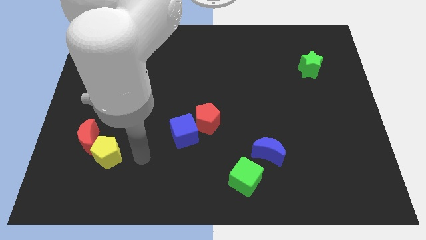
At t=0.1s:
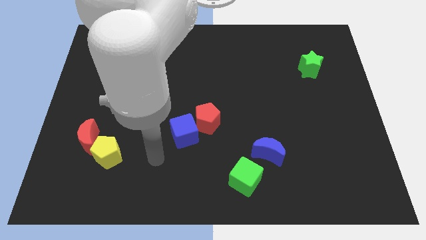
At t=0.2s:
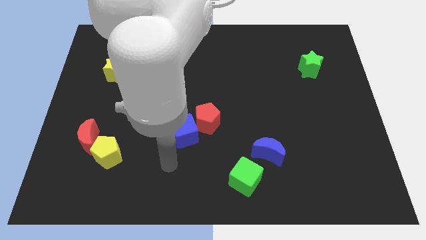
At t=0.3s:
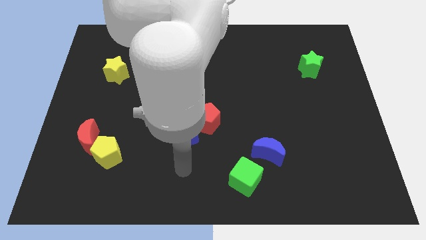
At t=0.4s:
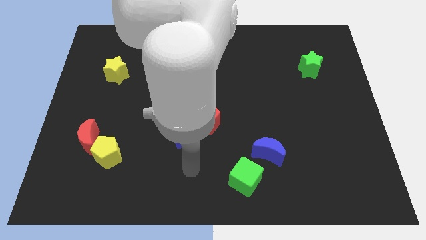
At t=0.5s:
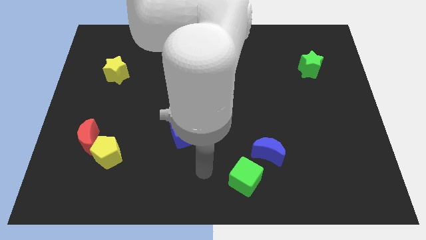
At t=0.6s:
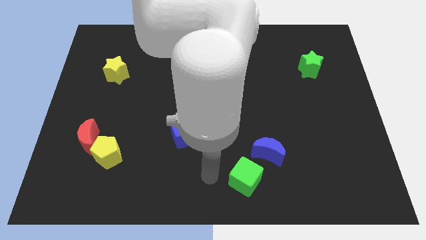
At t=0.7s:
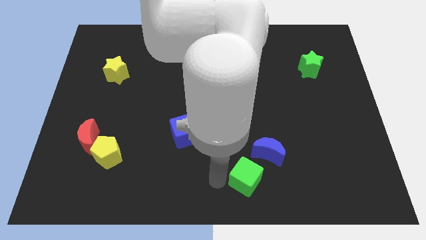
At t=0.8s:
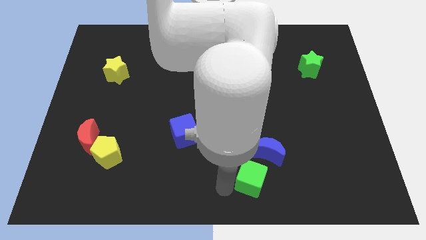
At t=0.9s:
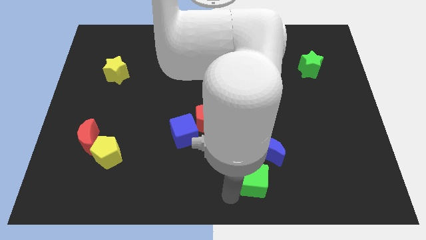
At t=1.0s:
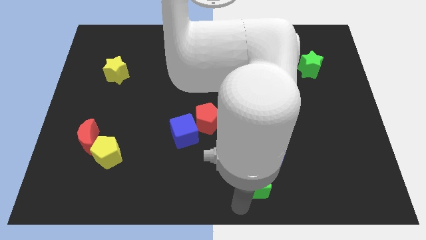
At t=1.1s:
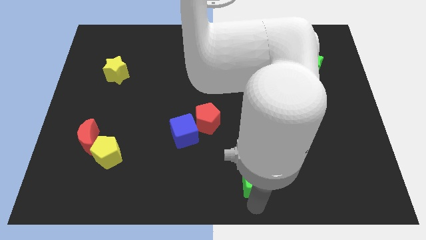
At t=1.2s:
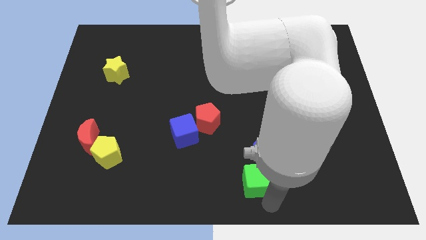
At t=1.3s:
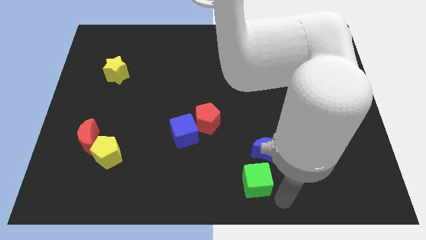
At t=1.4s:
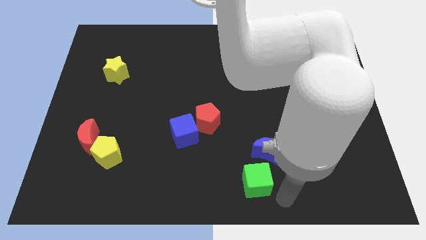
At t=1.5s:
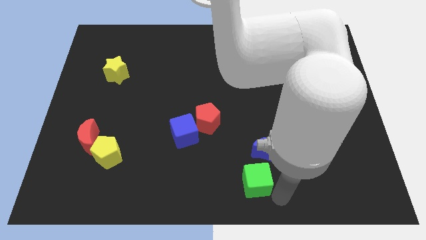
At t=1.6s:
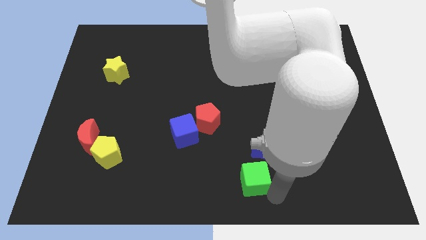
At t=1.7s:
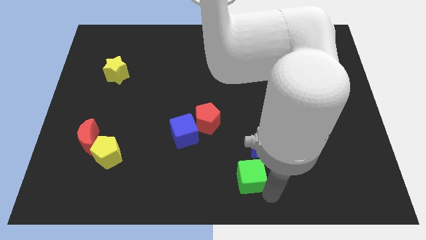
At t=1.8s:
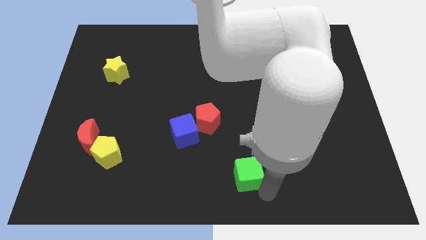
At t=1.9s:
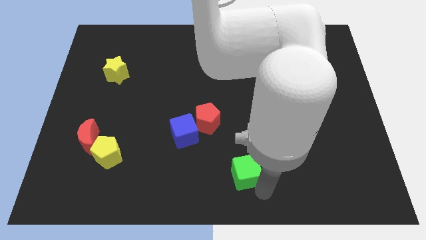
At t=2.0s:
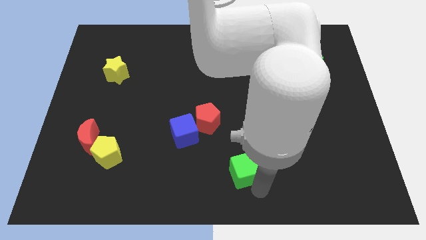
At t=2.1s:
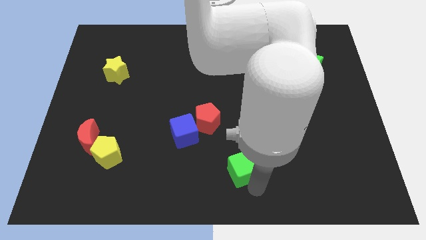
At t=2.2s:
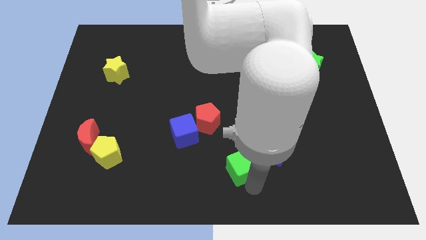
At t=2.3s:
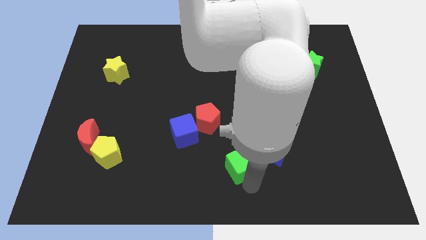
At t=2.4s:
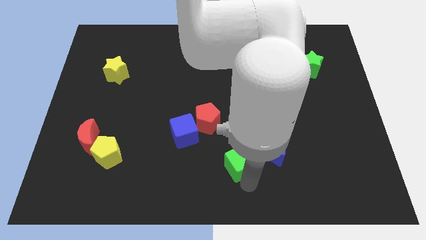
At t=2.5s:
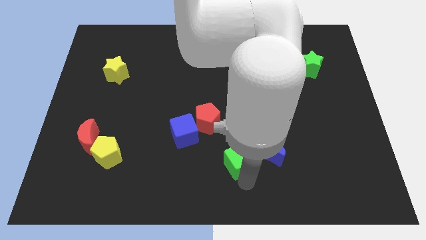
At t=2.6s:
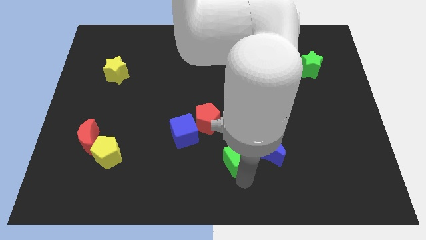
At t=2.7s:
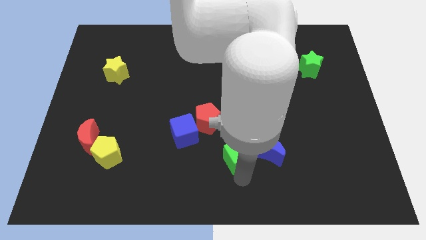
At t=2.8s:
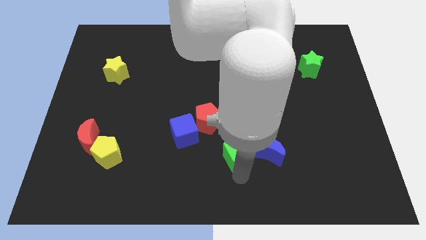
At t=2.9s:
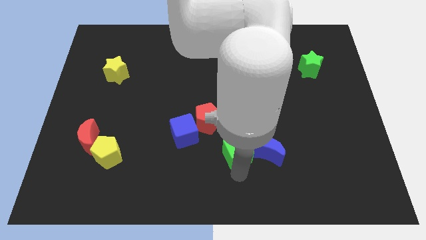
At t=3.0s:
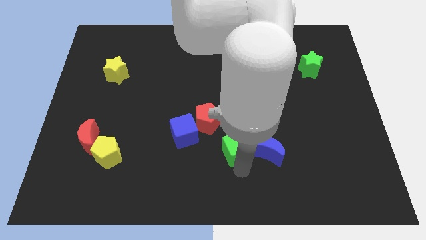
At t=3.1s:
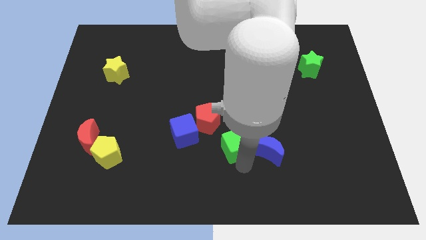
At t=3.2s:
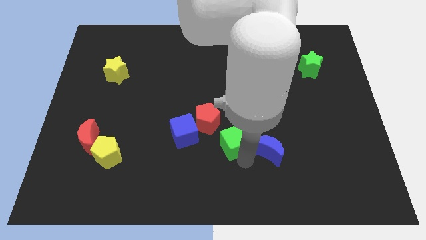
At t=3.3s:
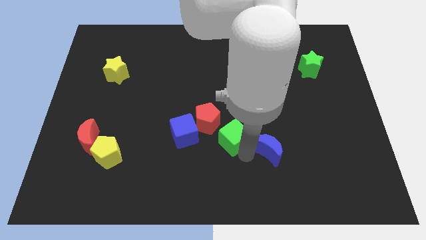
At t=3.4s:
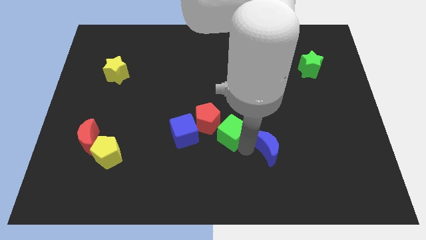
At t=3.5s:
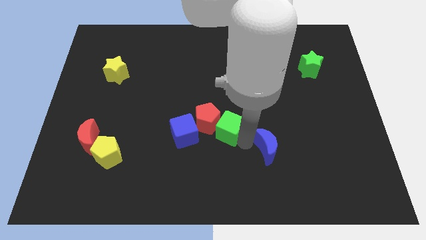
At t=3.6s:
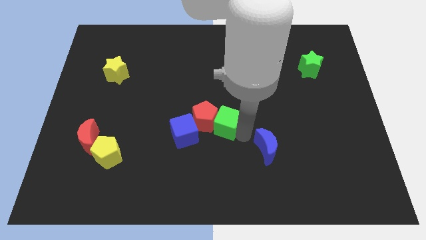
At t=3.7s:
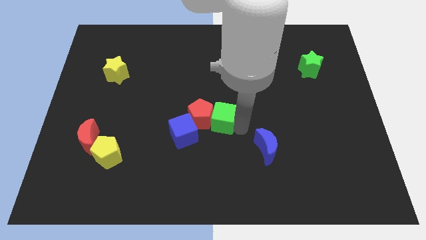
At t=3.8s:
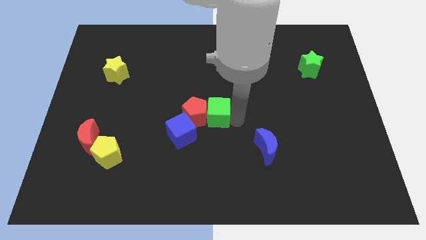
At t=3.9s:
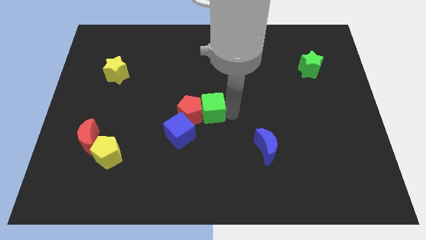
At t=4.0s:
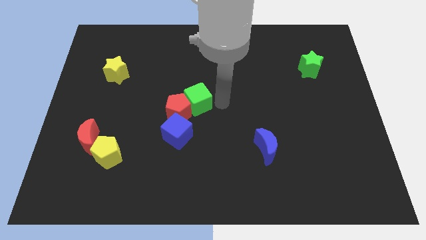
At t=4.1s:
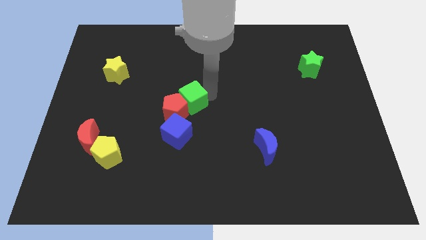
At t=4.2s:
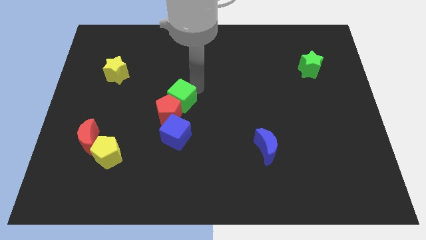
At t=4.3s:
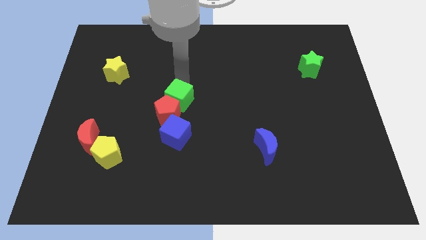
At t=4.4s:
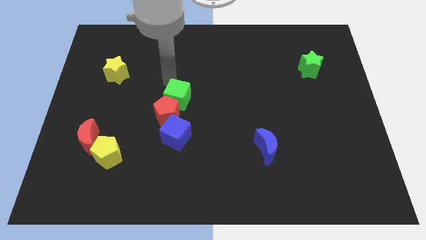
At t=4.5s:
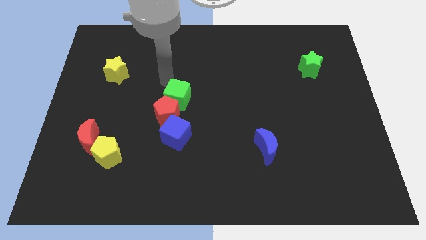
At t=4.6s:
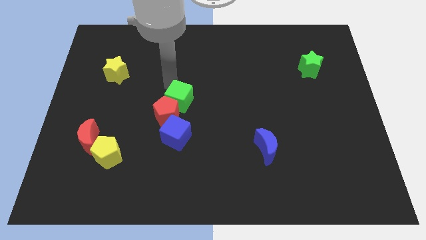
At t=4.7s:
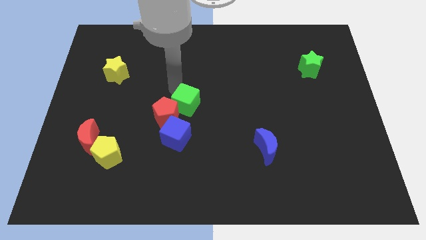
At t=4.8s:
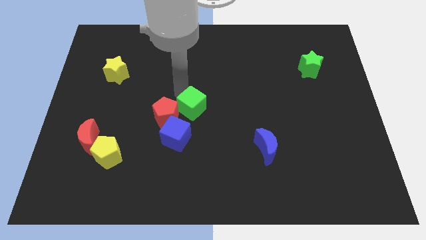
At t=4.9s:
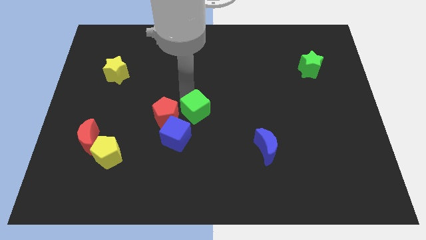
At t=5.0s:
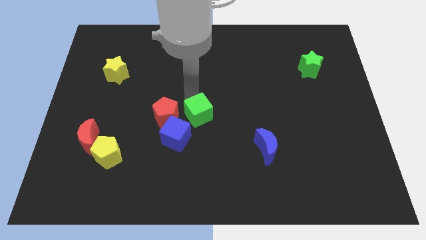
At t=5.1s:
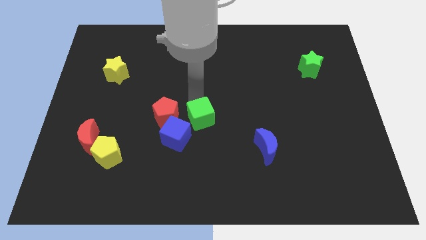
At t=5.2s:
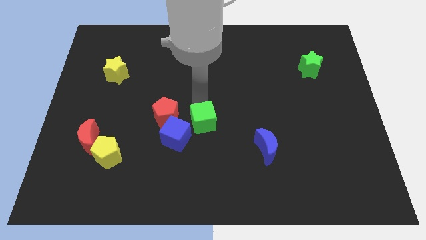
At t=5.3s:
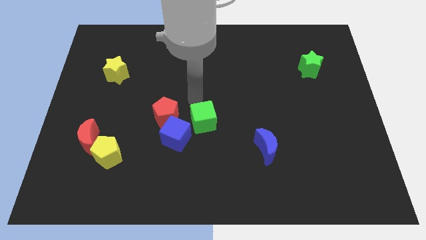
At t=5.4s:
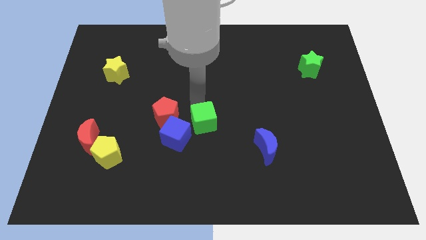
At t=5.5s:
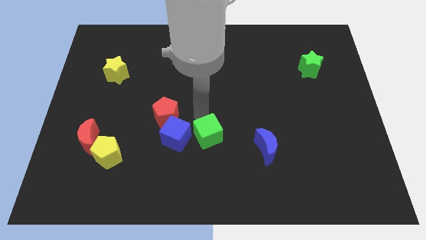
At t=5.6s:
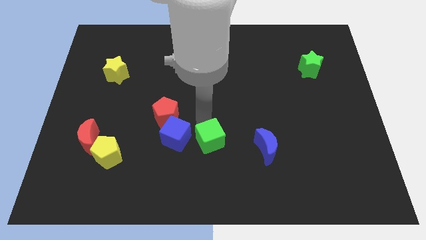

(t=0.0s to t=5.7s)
move the green cube diagonally down and to the right of the blue cube

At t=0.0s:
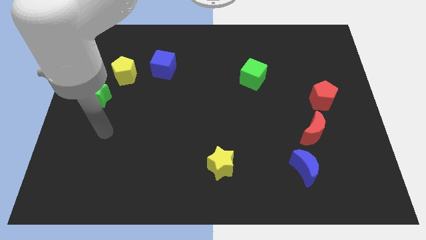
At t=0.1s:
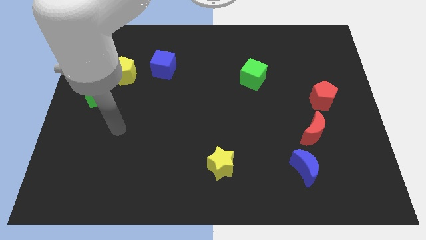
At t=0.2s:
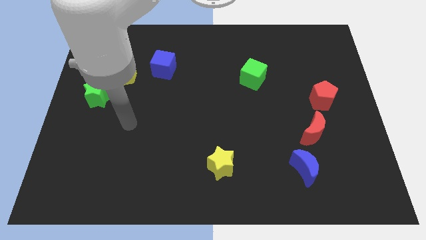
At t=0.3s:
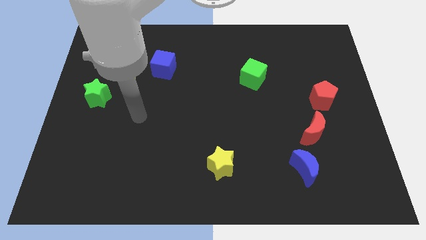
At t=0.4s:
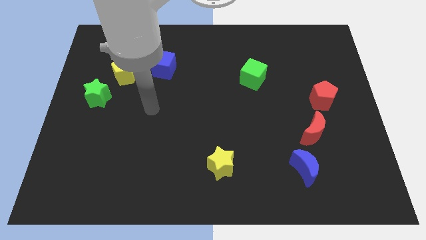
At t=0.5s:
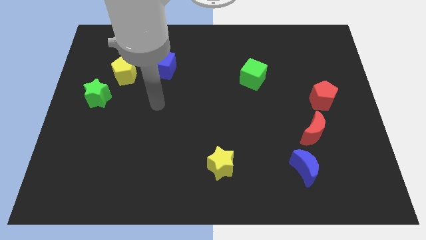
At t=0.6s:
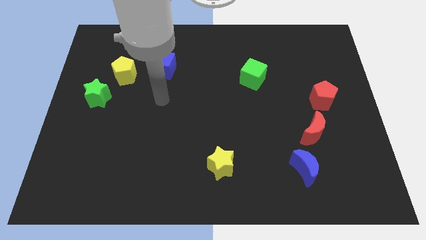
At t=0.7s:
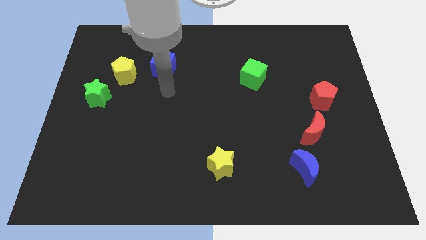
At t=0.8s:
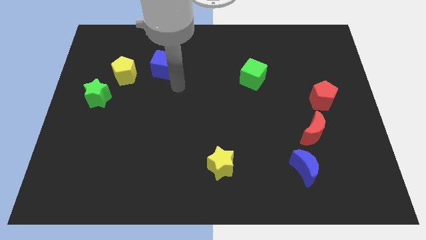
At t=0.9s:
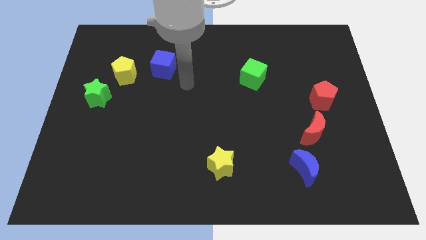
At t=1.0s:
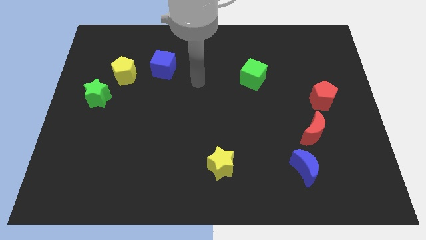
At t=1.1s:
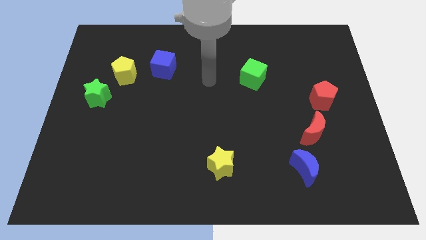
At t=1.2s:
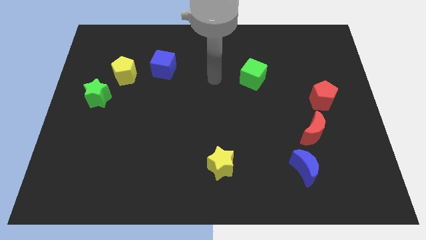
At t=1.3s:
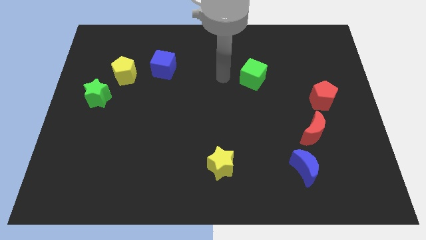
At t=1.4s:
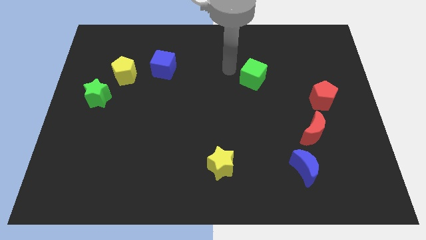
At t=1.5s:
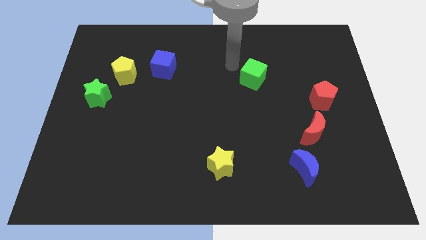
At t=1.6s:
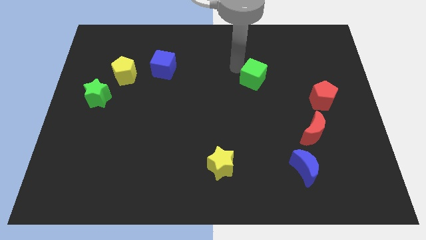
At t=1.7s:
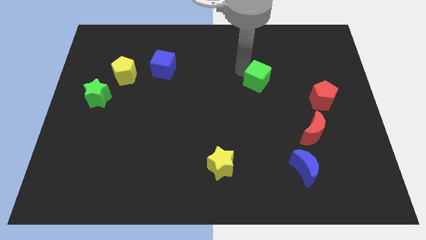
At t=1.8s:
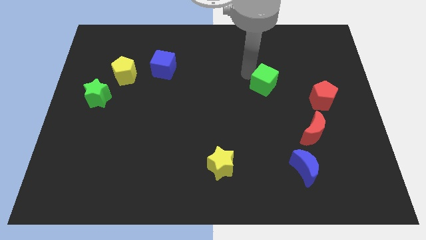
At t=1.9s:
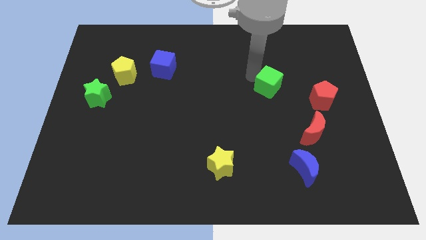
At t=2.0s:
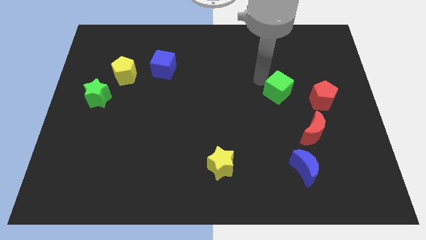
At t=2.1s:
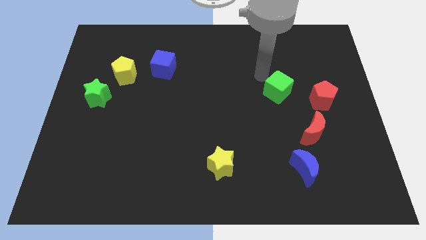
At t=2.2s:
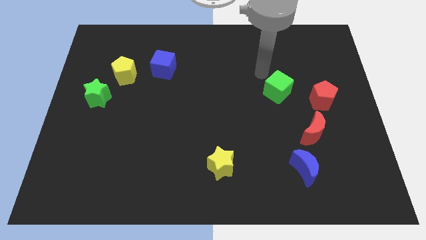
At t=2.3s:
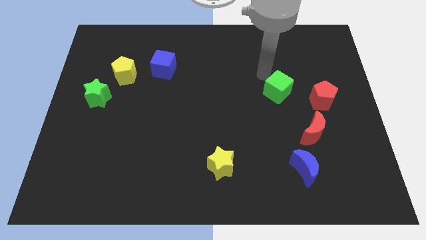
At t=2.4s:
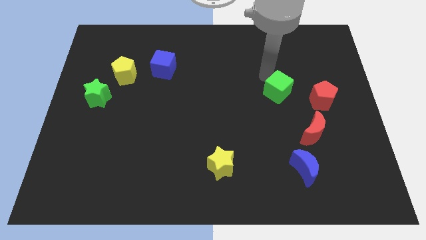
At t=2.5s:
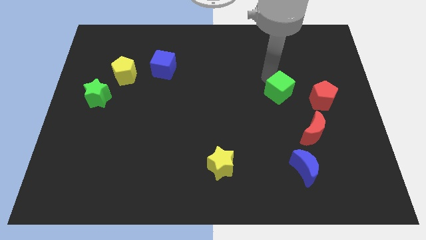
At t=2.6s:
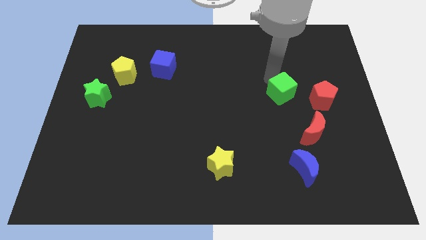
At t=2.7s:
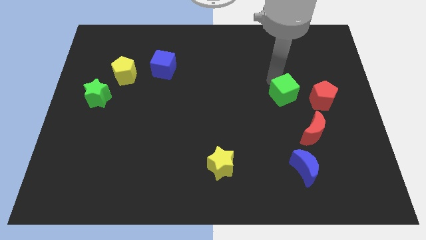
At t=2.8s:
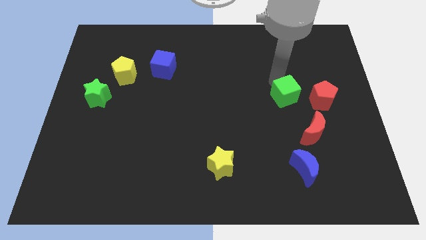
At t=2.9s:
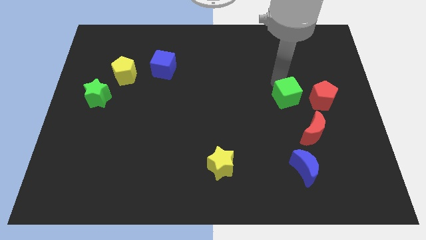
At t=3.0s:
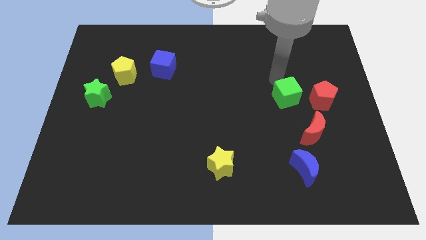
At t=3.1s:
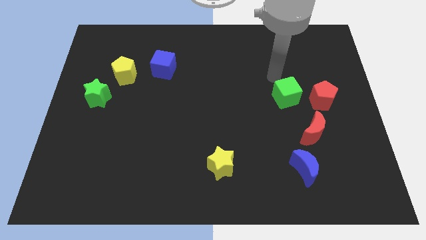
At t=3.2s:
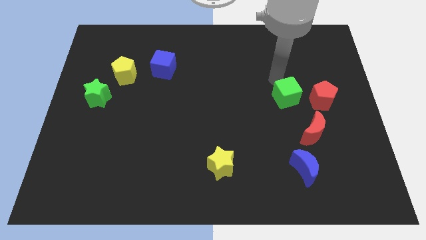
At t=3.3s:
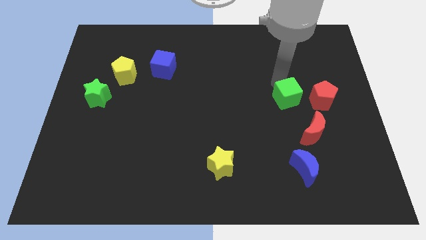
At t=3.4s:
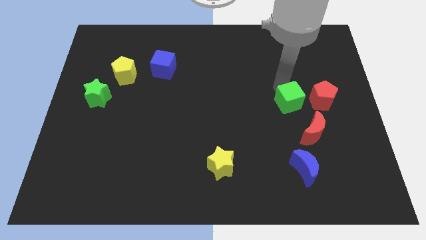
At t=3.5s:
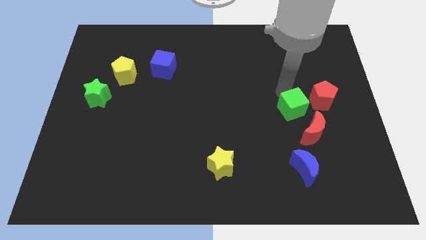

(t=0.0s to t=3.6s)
push the green cube to the bottom left of the red pentagon
